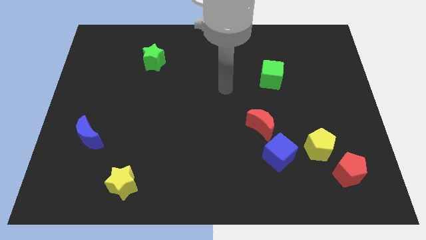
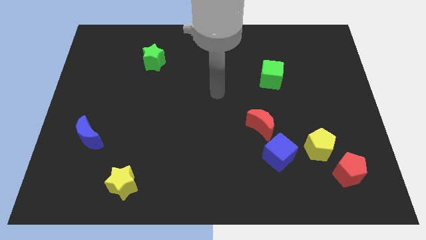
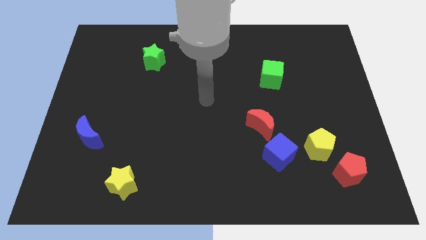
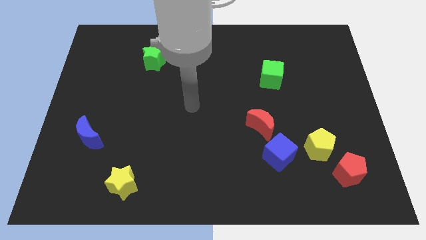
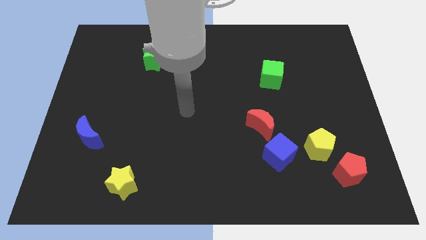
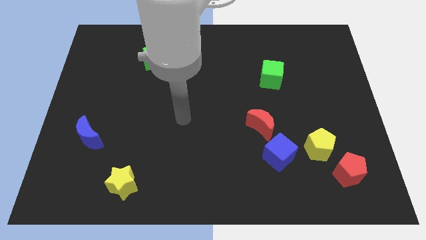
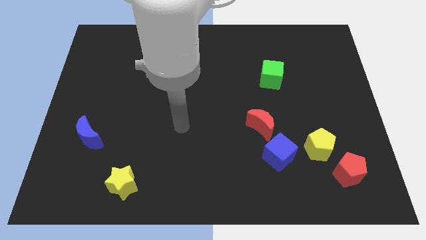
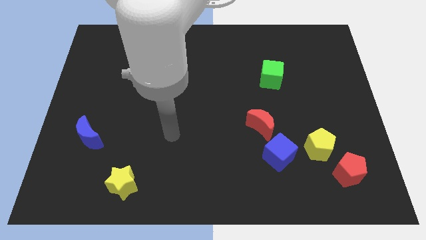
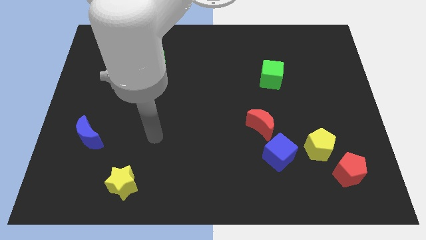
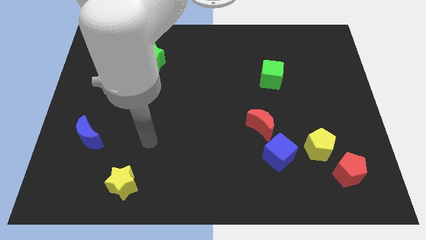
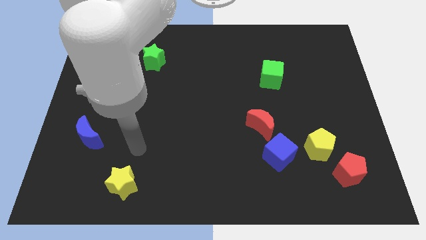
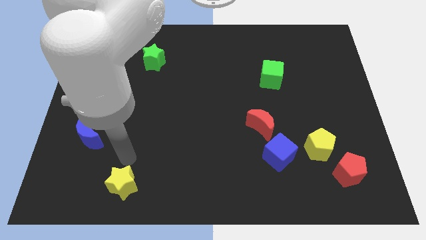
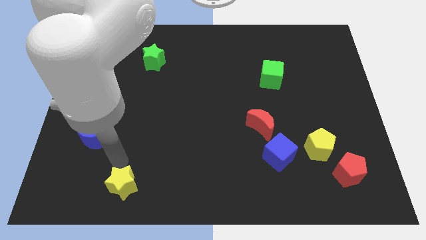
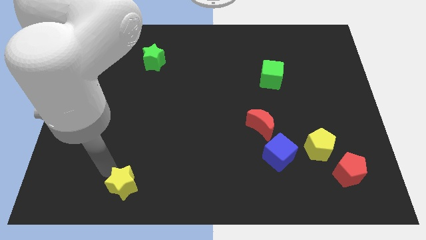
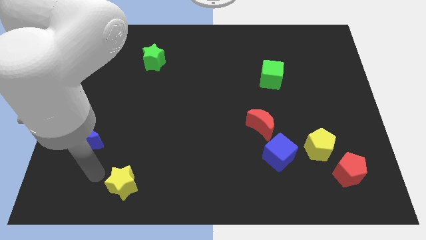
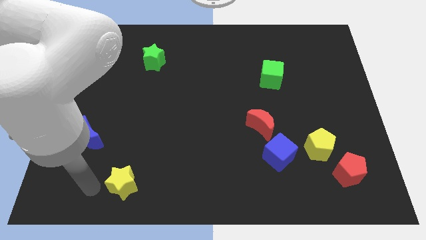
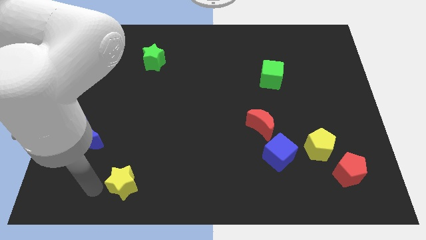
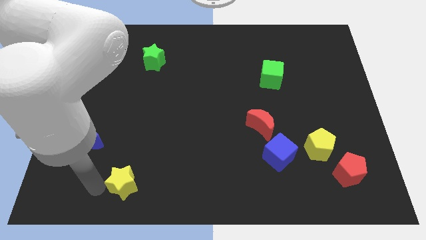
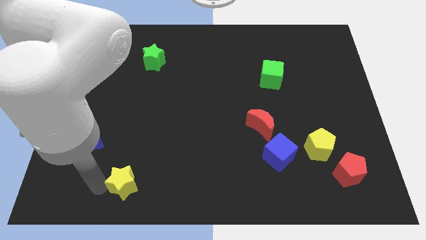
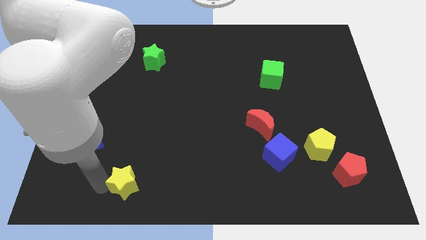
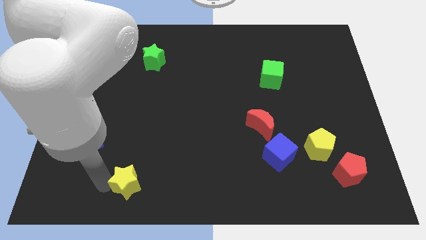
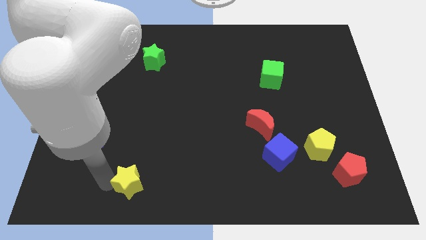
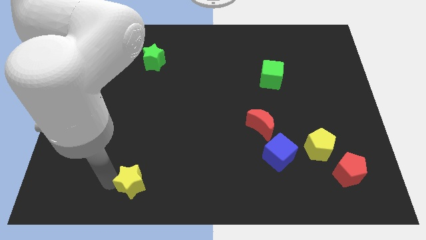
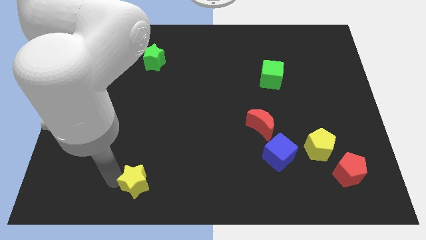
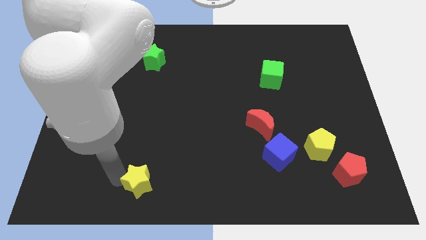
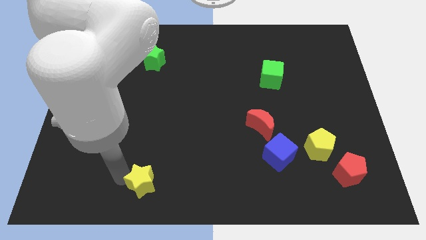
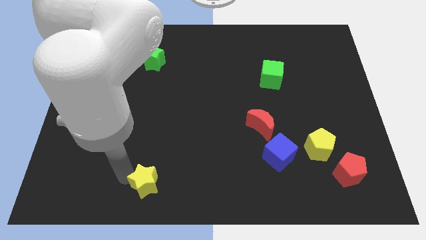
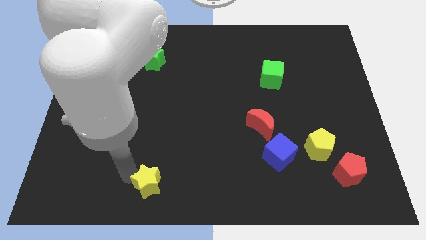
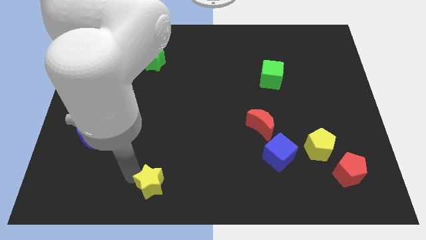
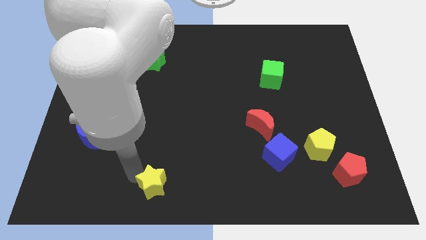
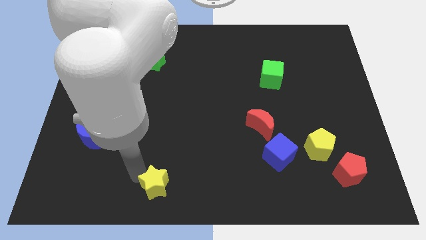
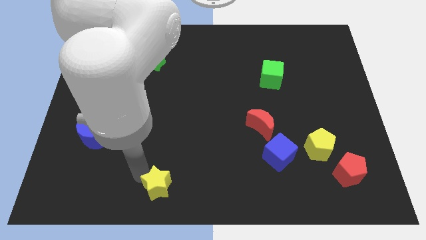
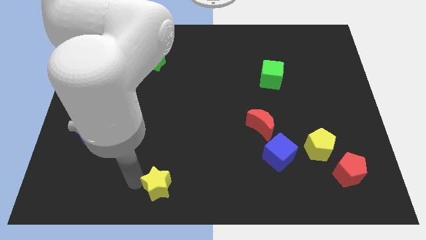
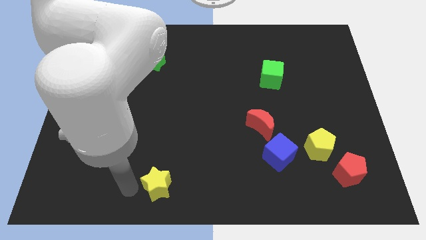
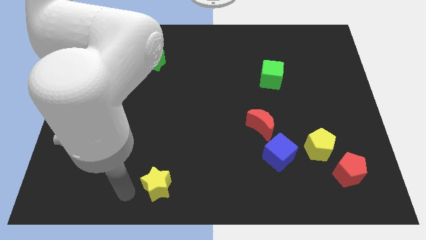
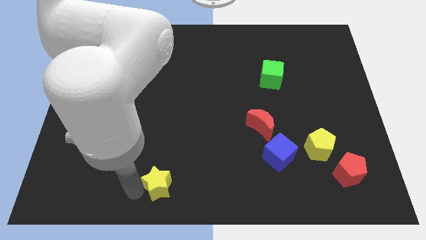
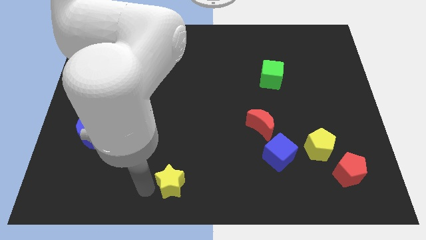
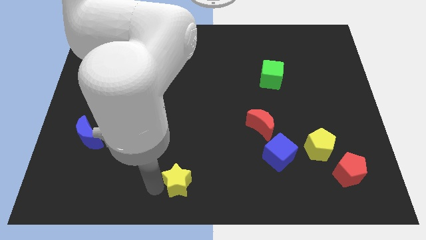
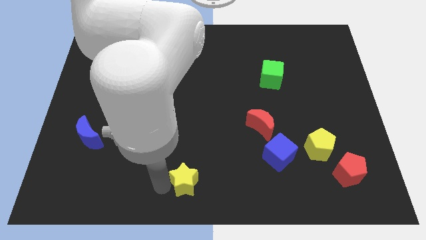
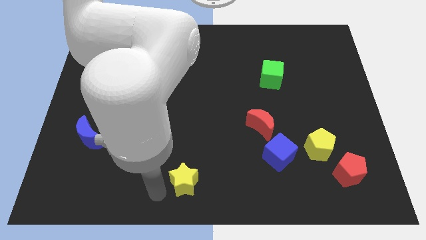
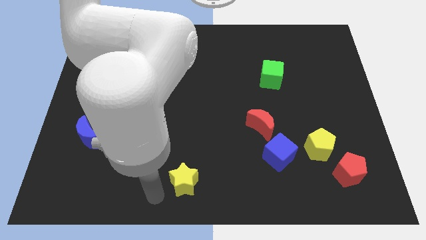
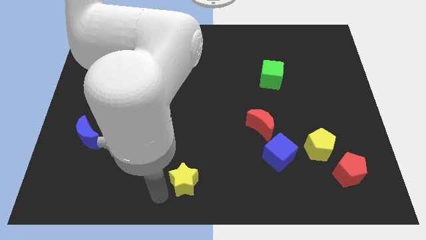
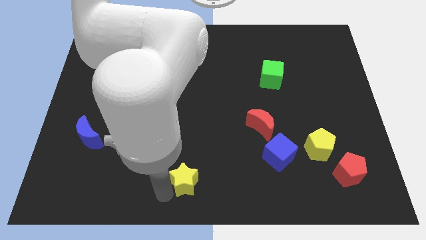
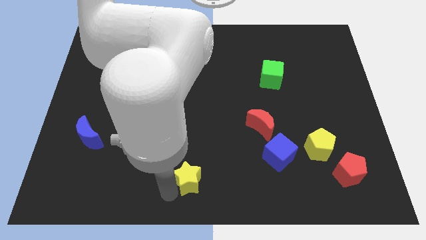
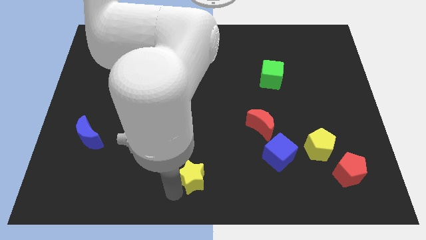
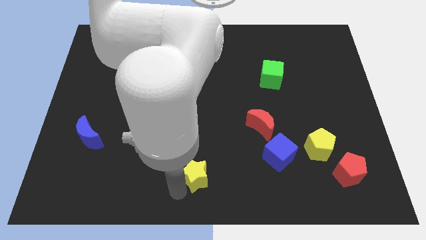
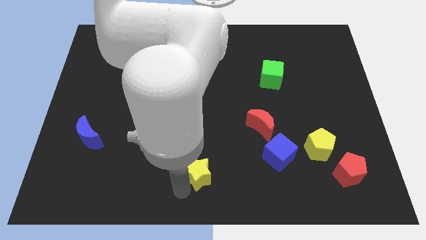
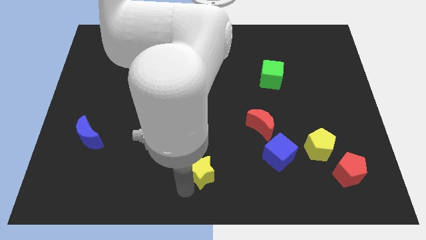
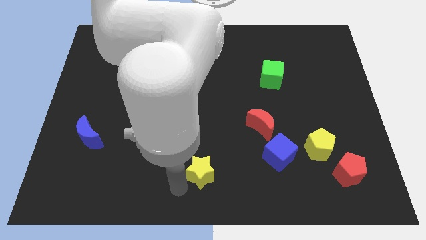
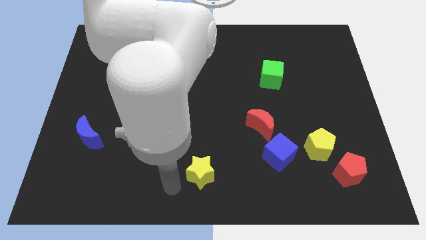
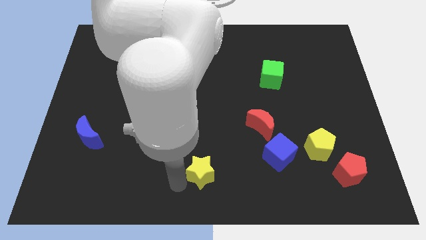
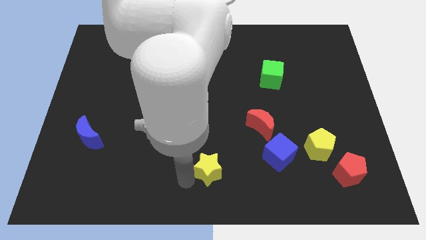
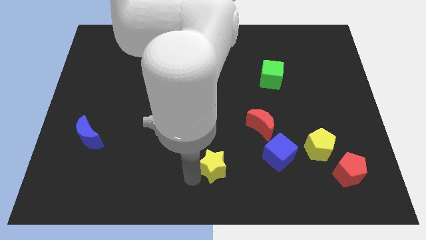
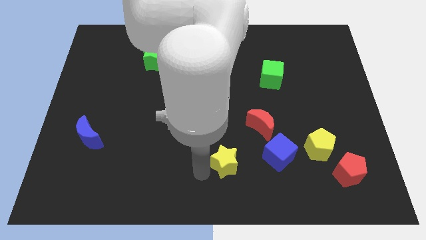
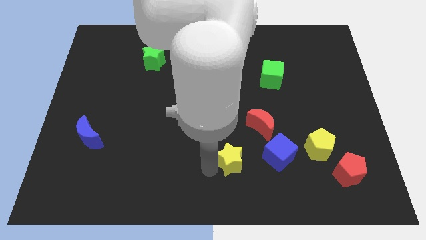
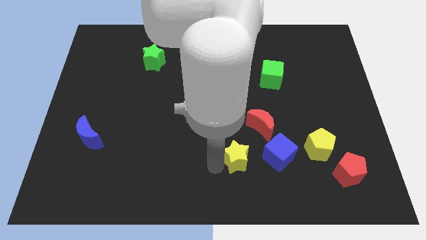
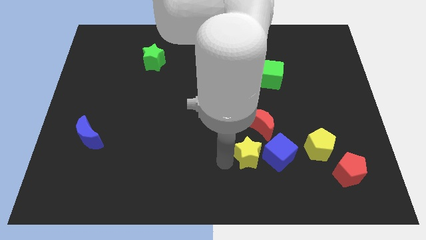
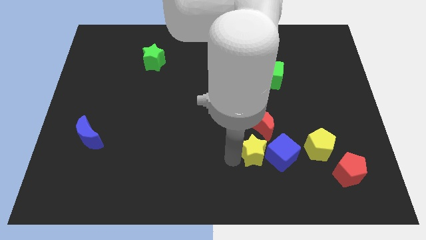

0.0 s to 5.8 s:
put the yellow star next to the blue cube
